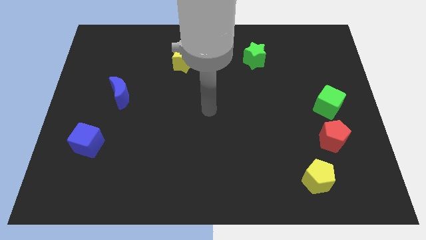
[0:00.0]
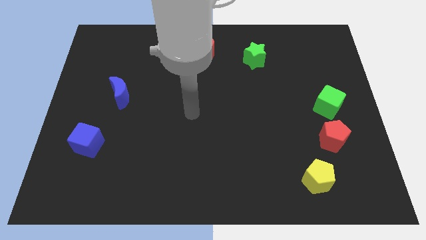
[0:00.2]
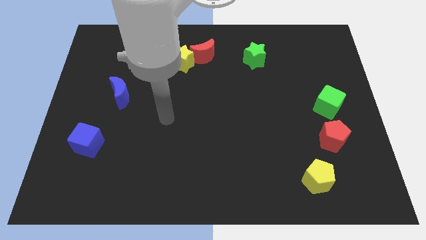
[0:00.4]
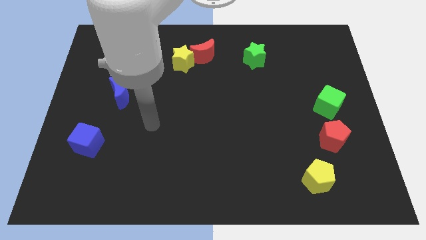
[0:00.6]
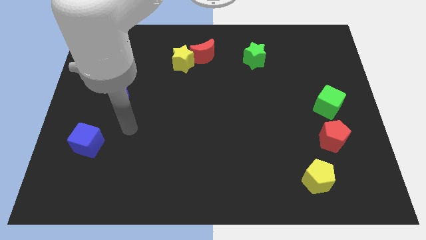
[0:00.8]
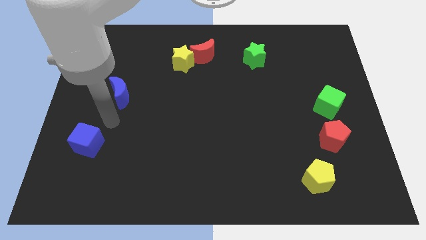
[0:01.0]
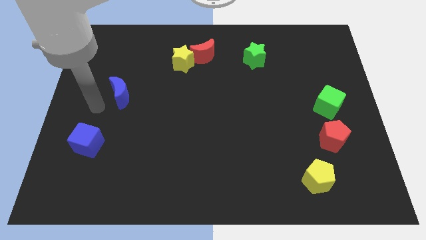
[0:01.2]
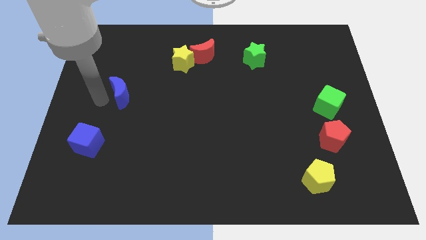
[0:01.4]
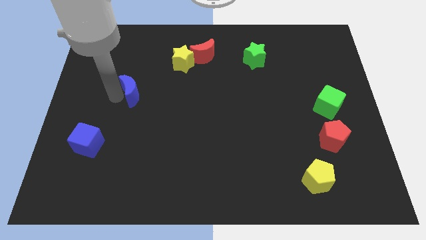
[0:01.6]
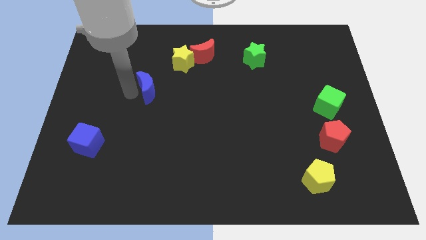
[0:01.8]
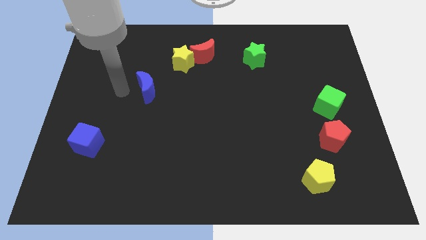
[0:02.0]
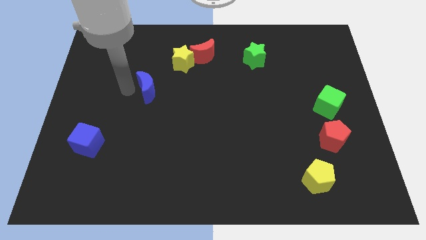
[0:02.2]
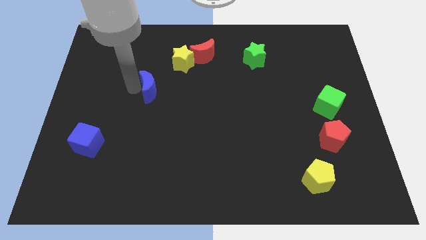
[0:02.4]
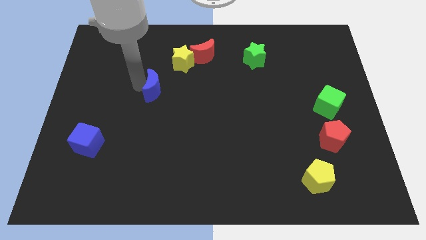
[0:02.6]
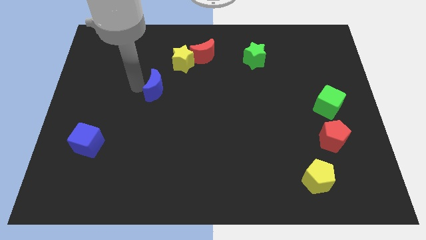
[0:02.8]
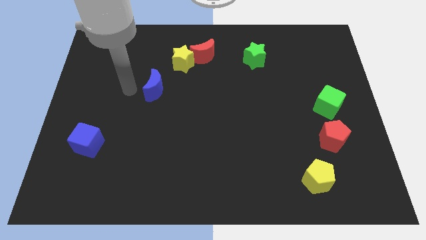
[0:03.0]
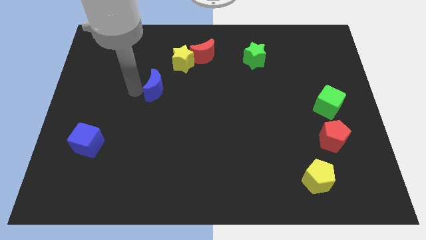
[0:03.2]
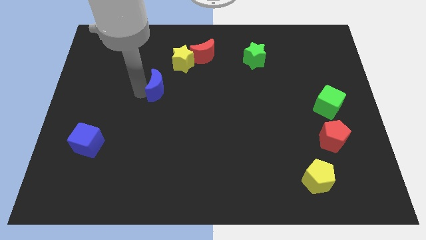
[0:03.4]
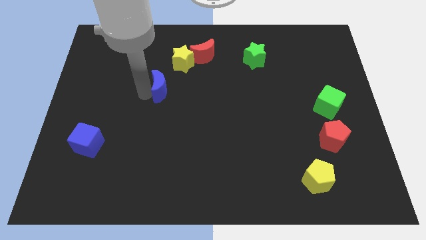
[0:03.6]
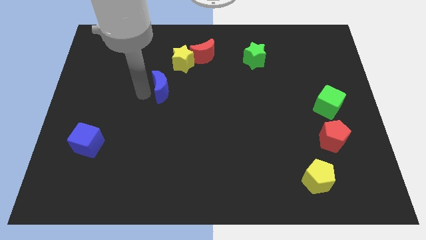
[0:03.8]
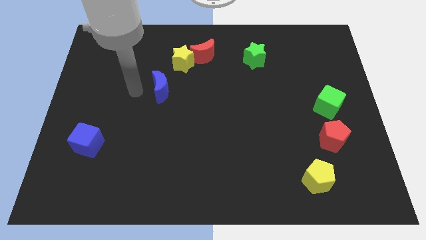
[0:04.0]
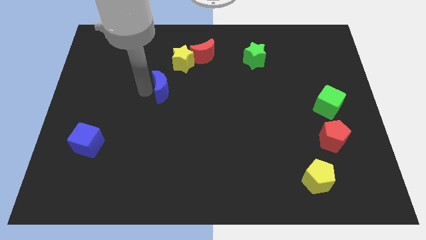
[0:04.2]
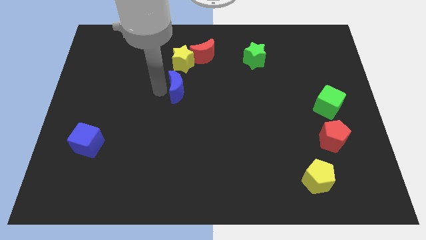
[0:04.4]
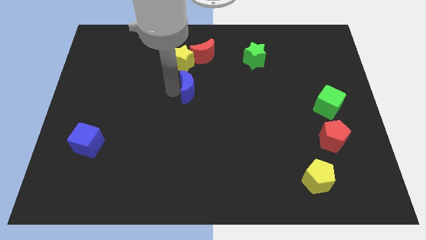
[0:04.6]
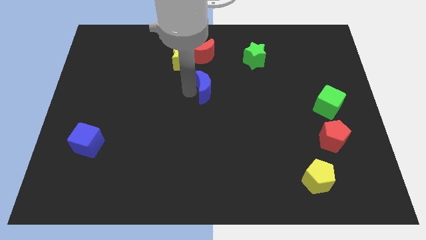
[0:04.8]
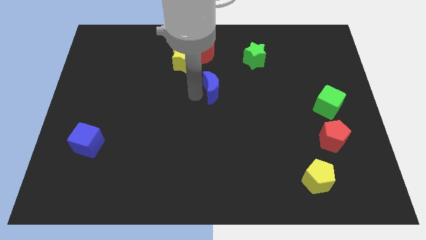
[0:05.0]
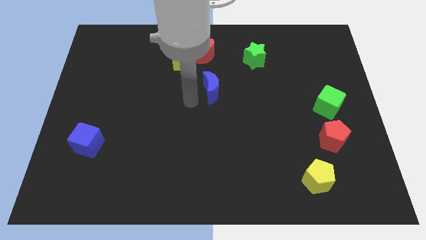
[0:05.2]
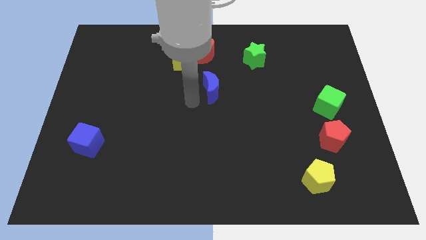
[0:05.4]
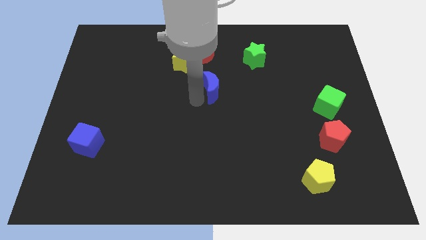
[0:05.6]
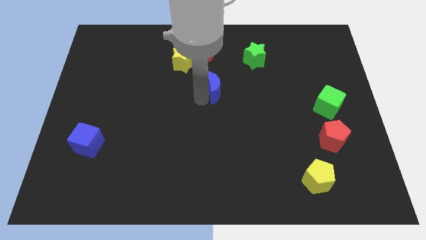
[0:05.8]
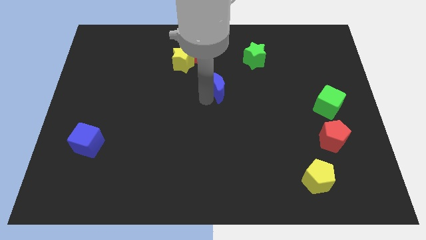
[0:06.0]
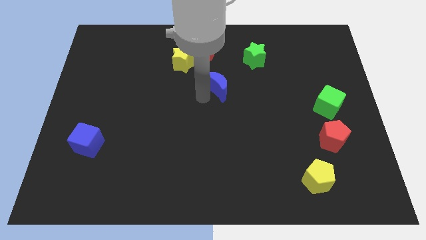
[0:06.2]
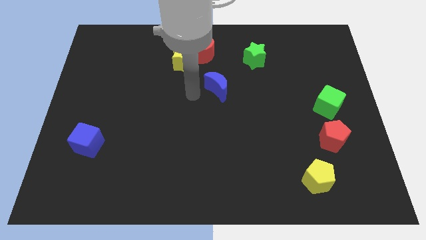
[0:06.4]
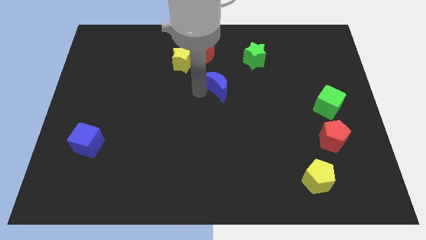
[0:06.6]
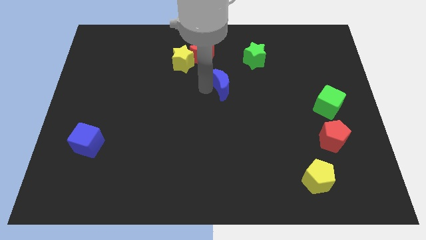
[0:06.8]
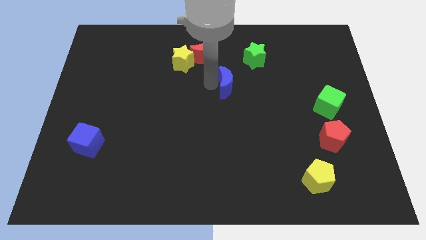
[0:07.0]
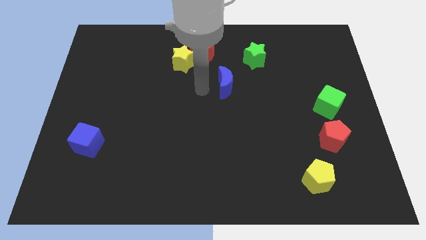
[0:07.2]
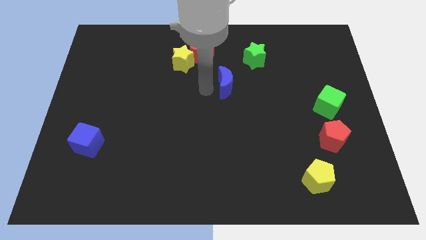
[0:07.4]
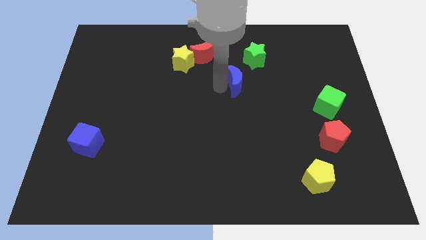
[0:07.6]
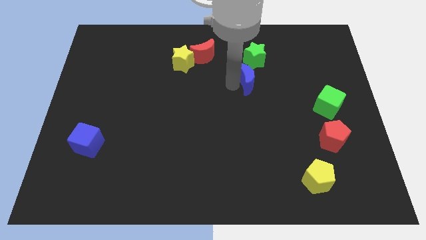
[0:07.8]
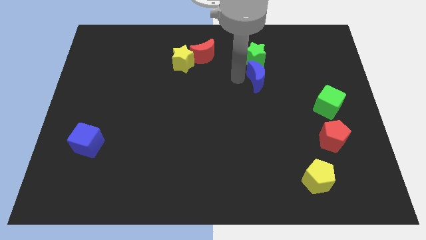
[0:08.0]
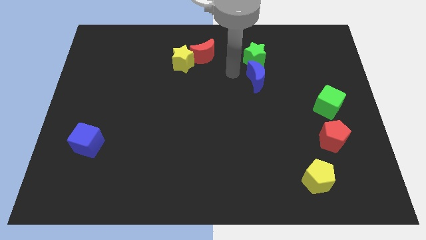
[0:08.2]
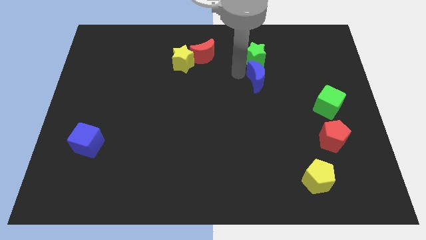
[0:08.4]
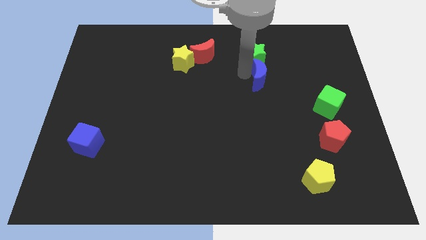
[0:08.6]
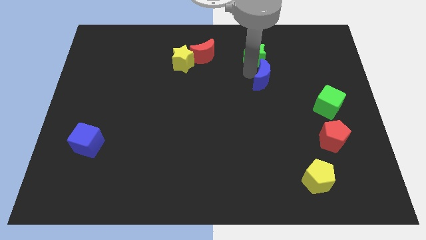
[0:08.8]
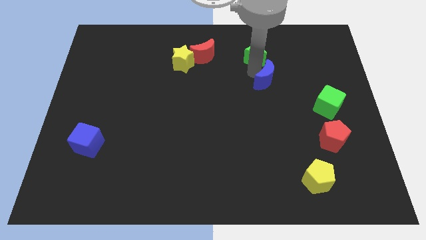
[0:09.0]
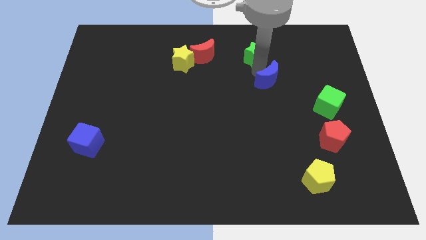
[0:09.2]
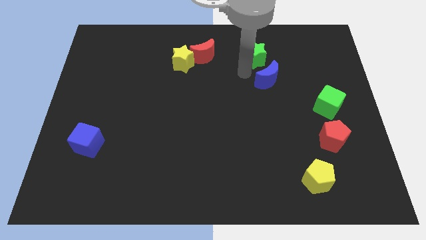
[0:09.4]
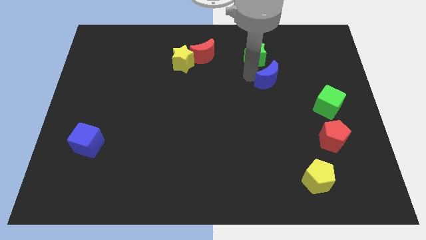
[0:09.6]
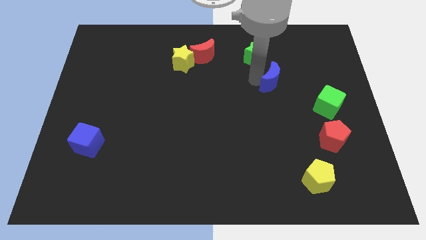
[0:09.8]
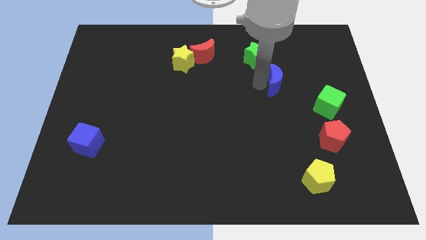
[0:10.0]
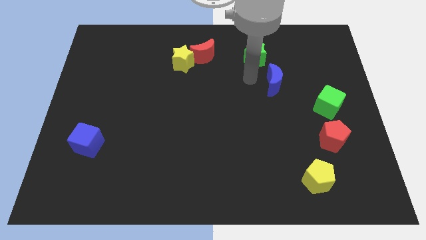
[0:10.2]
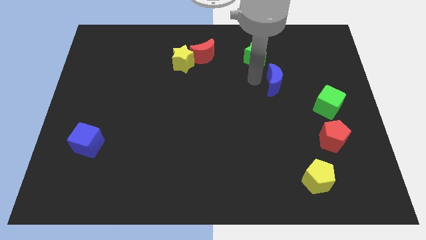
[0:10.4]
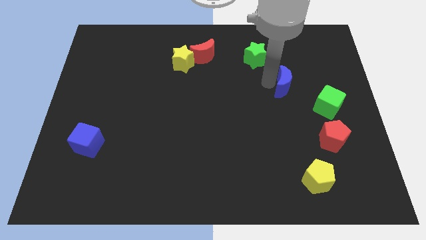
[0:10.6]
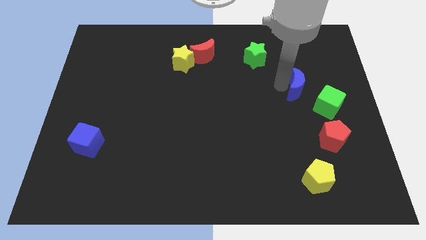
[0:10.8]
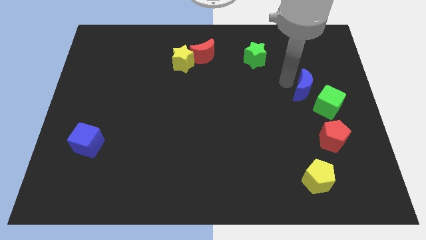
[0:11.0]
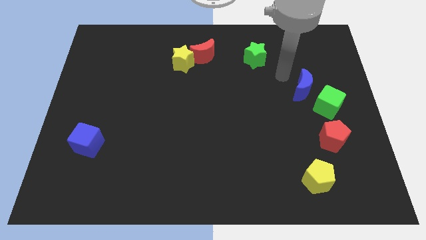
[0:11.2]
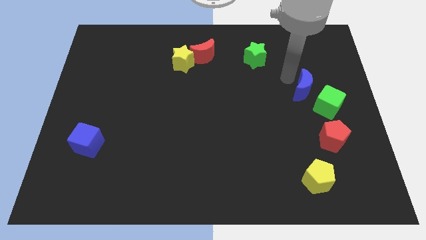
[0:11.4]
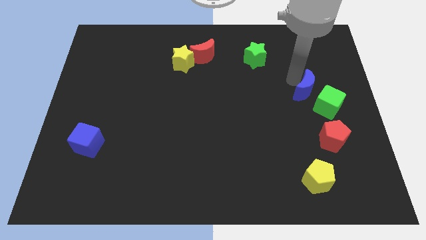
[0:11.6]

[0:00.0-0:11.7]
move the blue moon to the top of the red pentagon

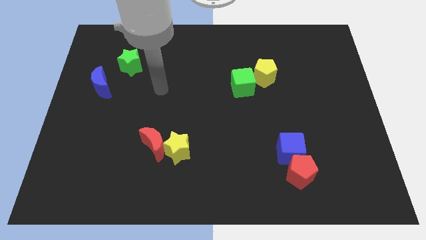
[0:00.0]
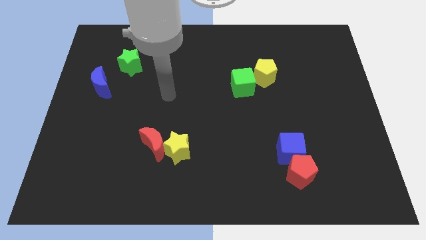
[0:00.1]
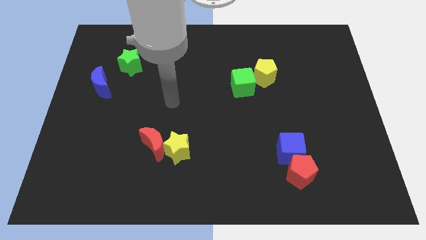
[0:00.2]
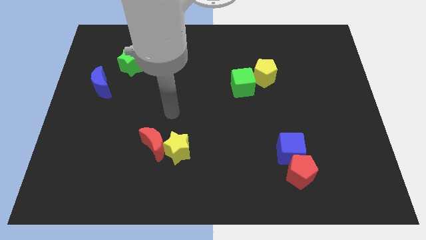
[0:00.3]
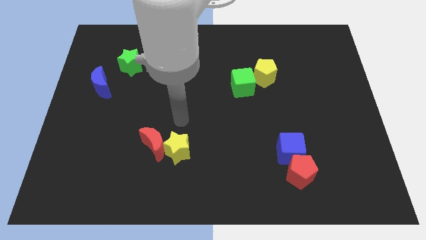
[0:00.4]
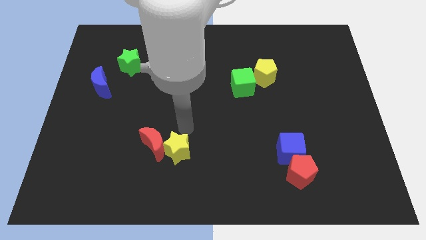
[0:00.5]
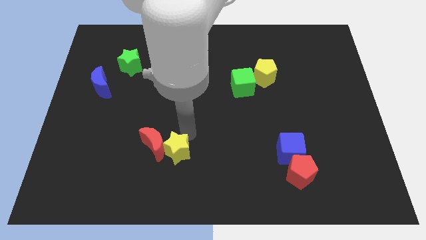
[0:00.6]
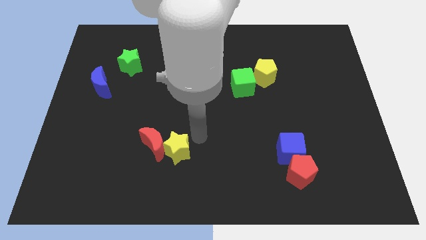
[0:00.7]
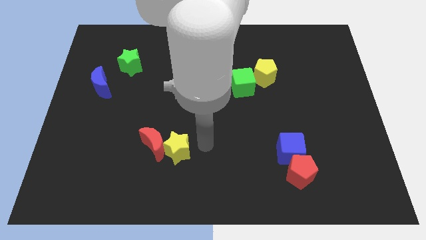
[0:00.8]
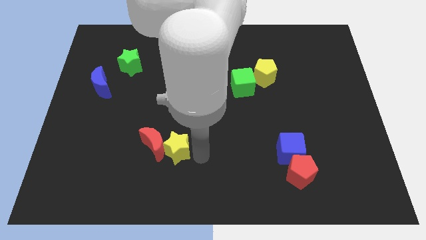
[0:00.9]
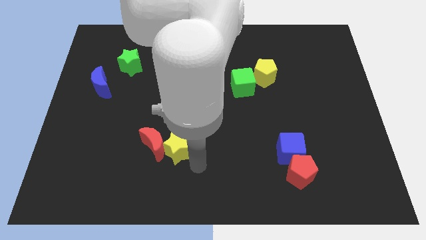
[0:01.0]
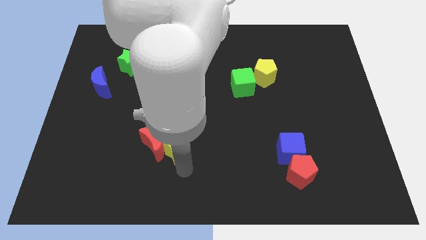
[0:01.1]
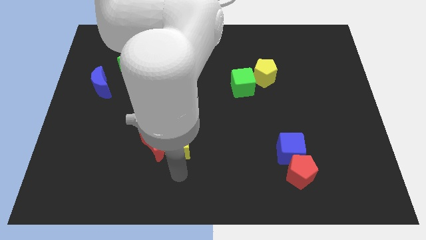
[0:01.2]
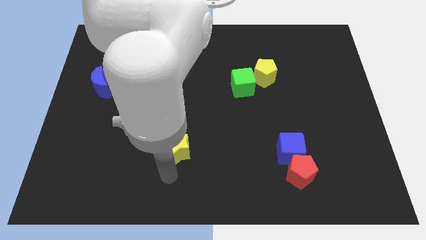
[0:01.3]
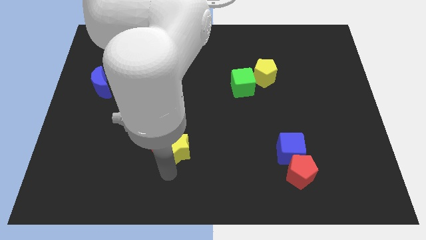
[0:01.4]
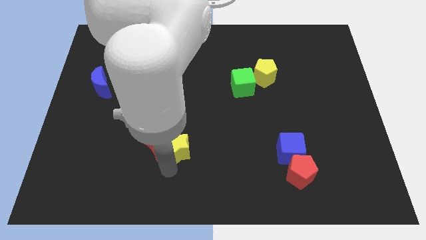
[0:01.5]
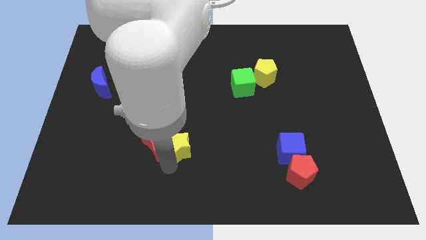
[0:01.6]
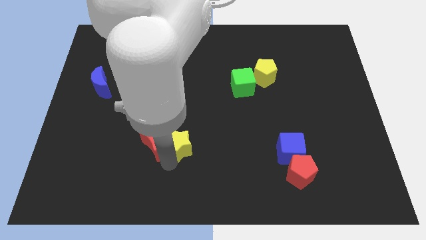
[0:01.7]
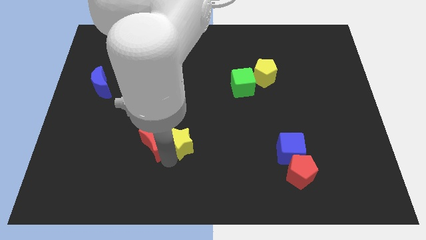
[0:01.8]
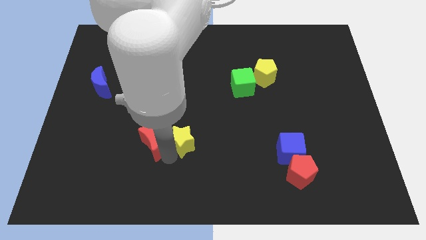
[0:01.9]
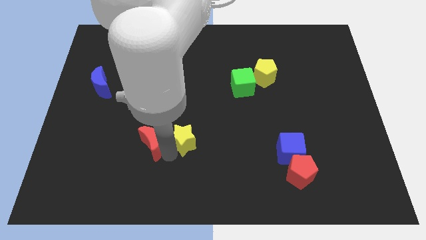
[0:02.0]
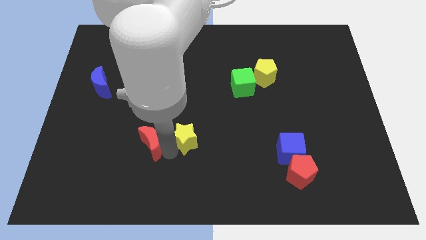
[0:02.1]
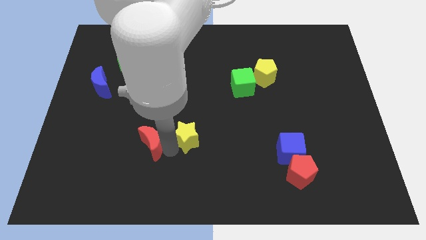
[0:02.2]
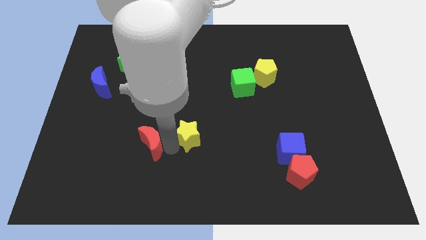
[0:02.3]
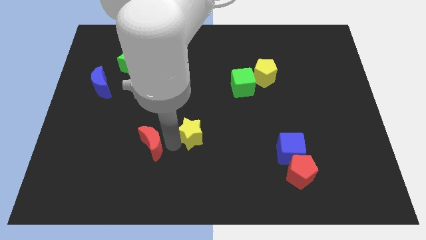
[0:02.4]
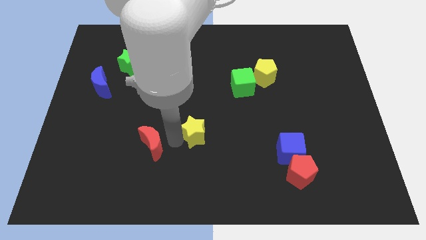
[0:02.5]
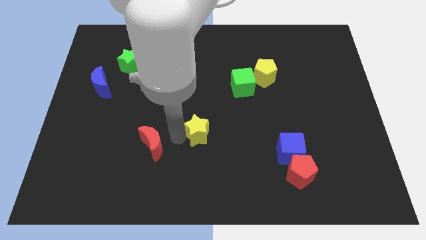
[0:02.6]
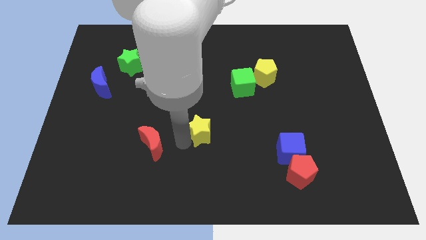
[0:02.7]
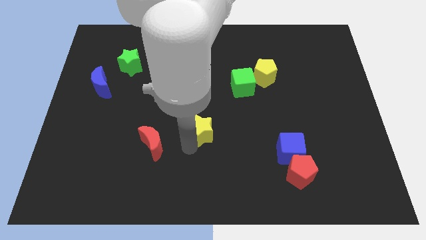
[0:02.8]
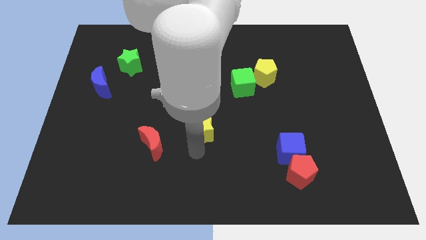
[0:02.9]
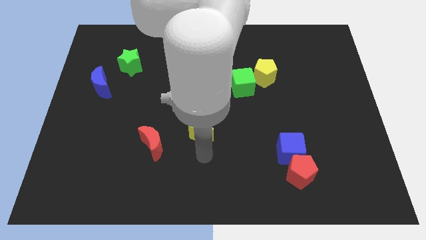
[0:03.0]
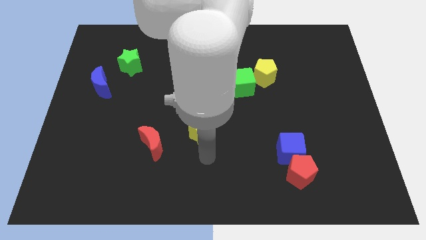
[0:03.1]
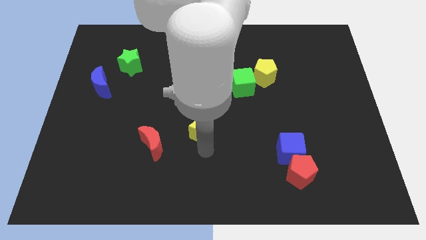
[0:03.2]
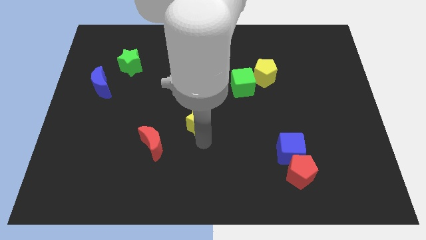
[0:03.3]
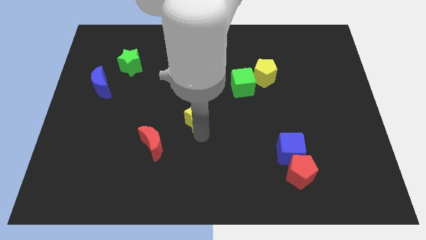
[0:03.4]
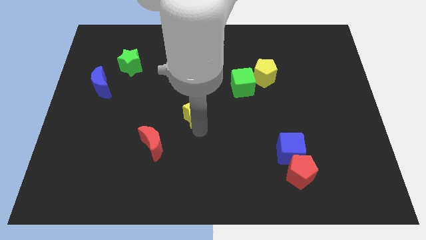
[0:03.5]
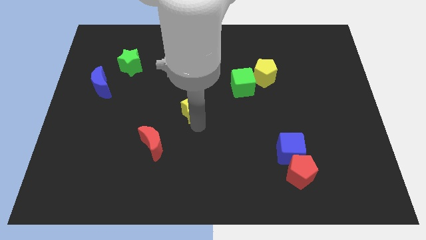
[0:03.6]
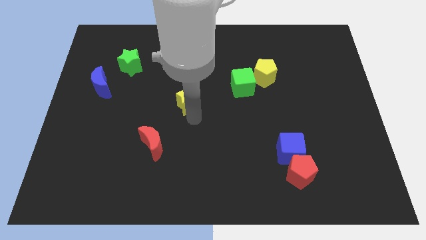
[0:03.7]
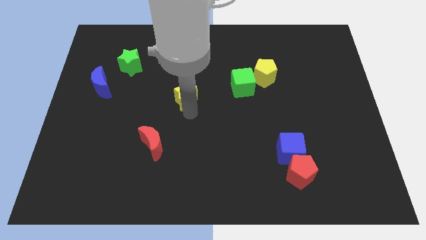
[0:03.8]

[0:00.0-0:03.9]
slide the yellow star to the left side of the green cube
